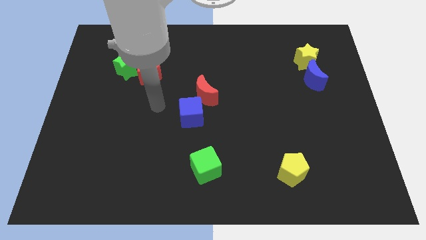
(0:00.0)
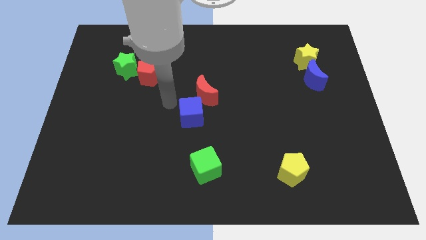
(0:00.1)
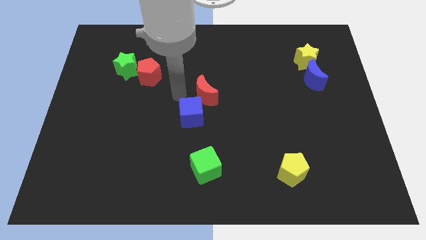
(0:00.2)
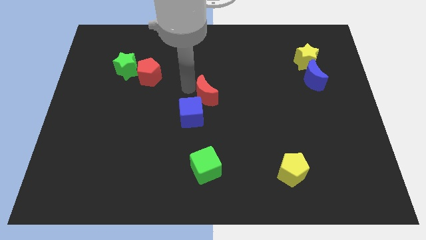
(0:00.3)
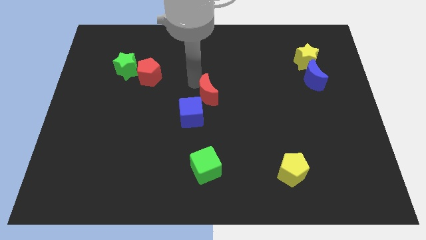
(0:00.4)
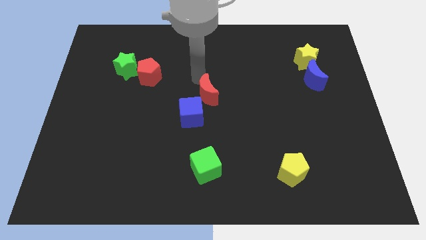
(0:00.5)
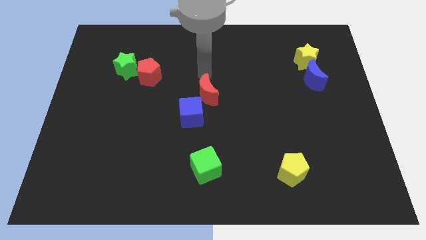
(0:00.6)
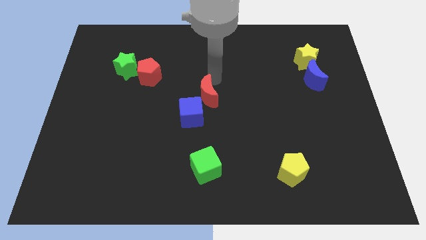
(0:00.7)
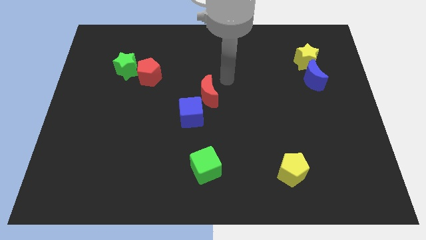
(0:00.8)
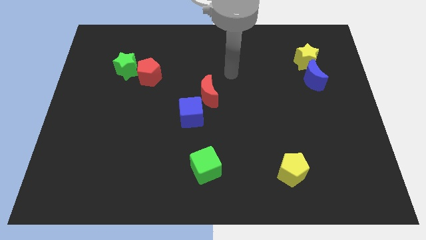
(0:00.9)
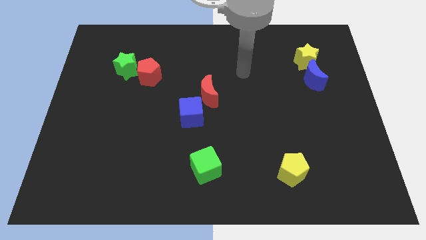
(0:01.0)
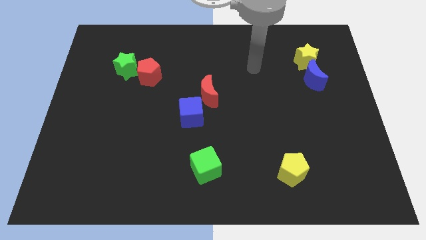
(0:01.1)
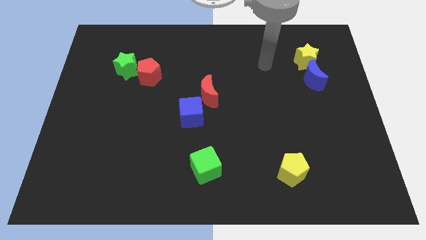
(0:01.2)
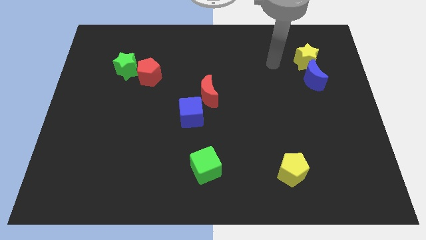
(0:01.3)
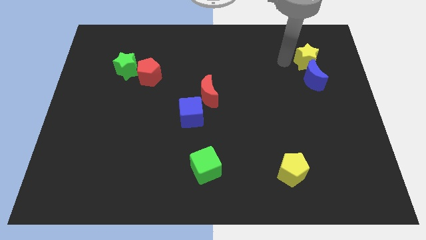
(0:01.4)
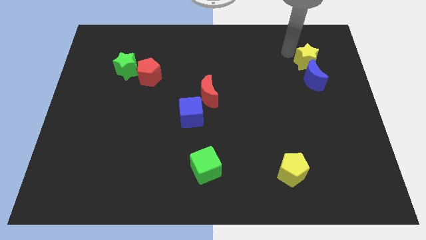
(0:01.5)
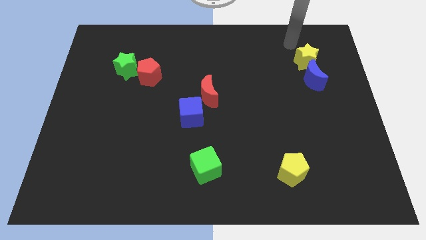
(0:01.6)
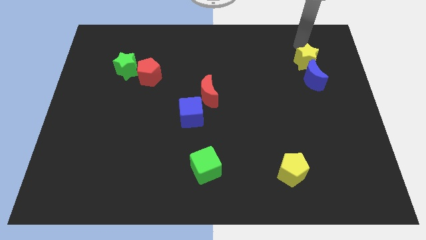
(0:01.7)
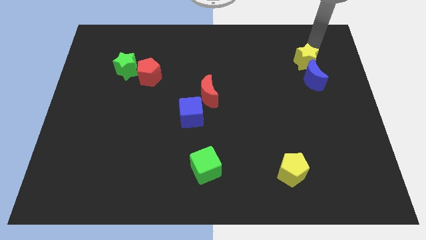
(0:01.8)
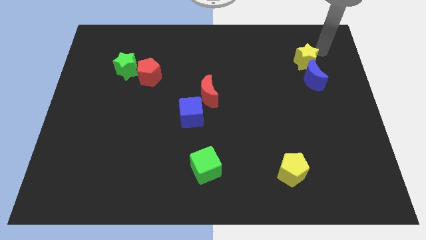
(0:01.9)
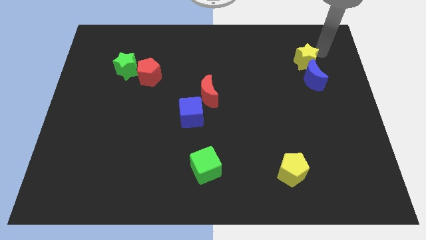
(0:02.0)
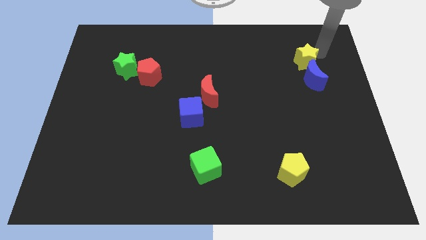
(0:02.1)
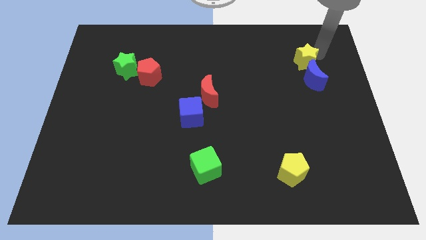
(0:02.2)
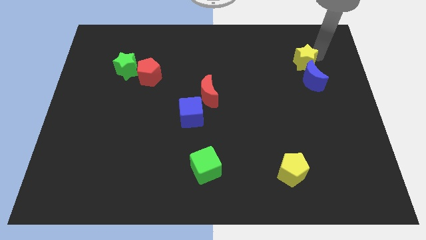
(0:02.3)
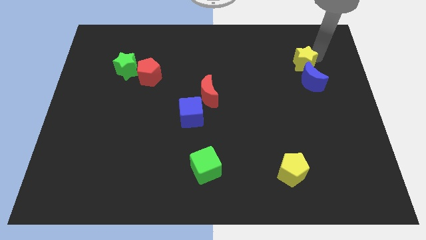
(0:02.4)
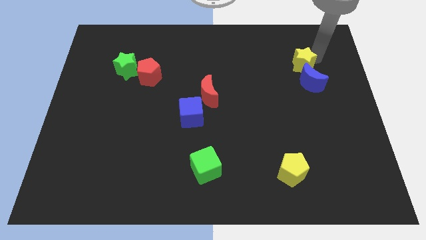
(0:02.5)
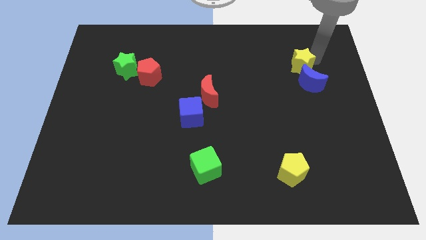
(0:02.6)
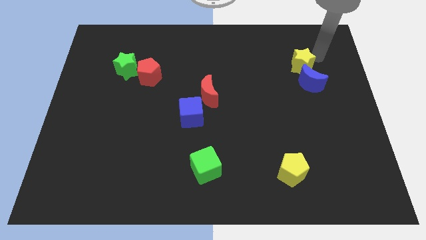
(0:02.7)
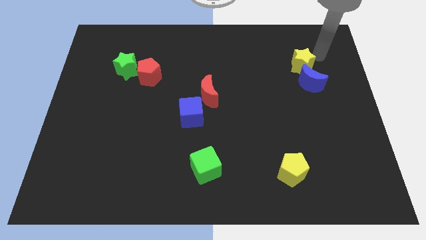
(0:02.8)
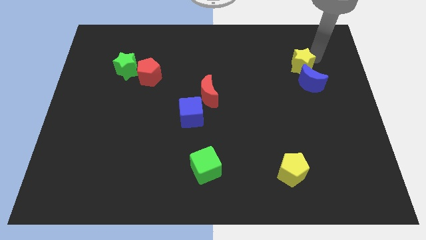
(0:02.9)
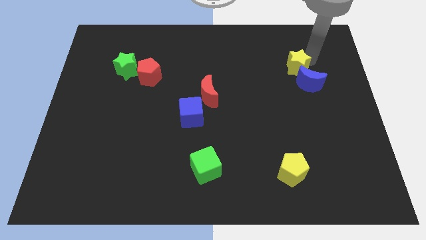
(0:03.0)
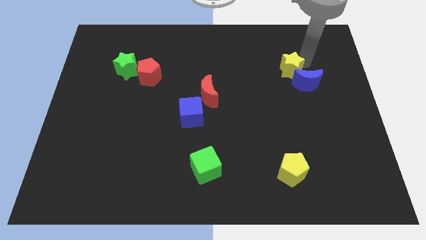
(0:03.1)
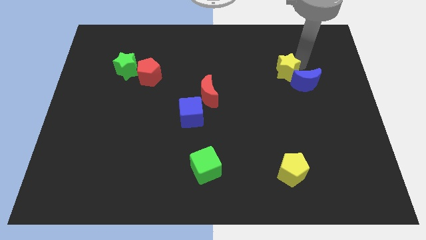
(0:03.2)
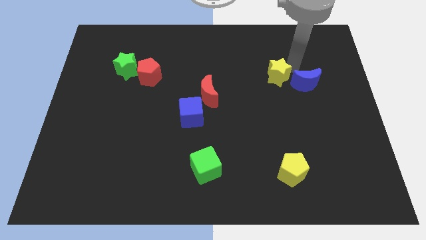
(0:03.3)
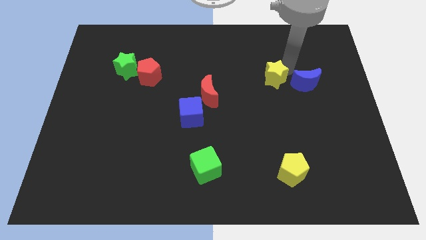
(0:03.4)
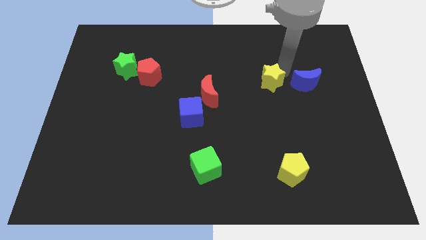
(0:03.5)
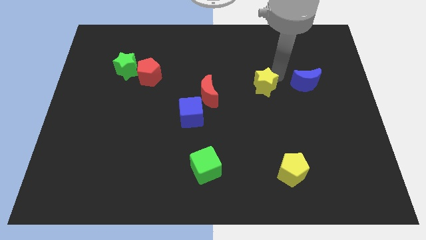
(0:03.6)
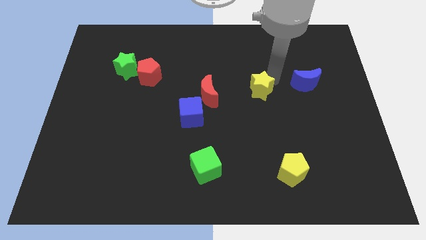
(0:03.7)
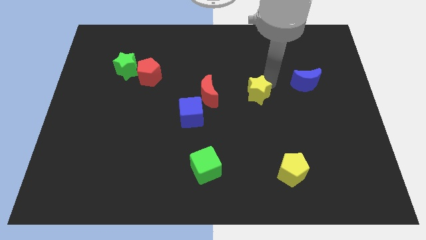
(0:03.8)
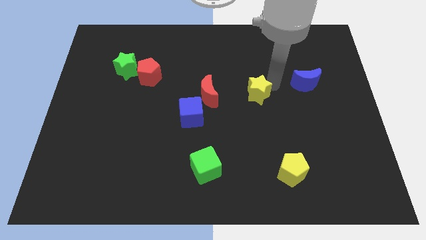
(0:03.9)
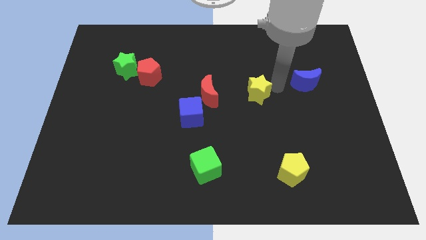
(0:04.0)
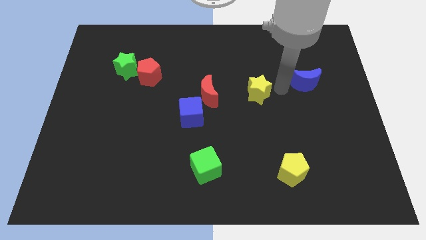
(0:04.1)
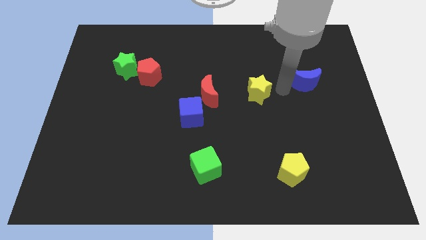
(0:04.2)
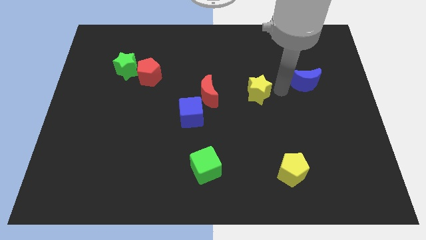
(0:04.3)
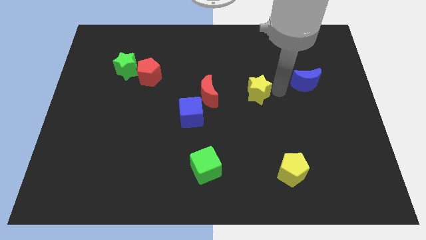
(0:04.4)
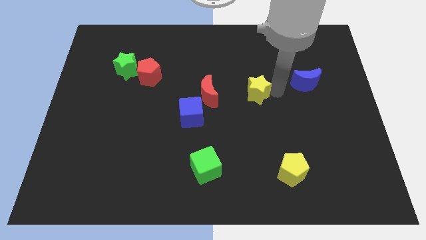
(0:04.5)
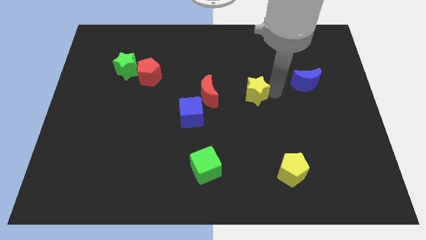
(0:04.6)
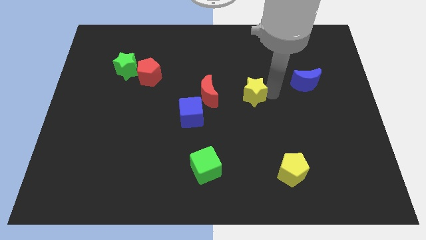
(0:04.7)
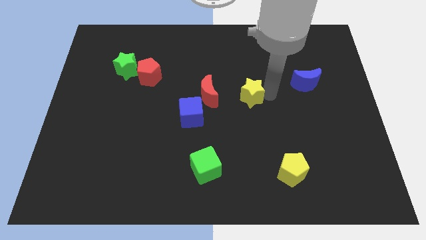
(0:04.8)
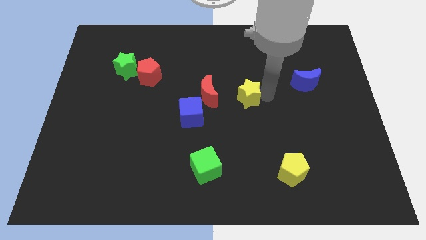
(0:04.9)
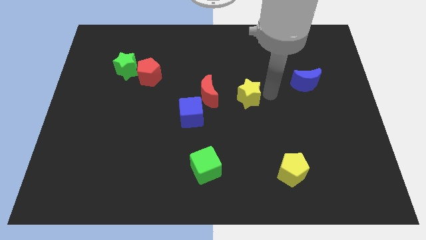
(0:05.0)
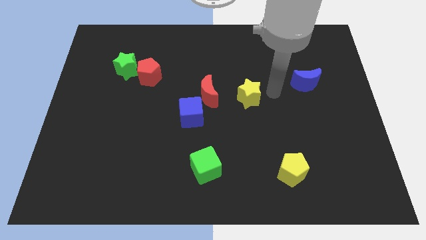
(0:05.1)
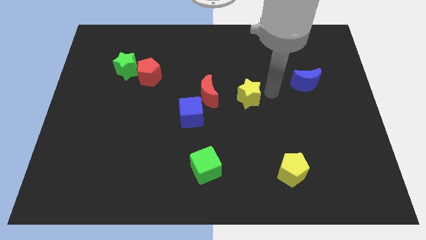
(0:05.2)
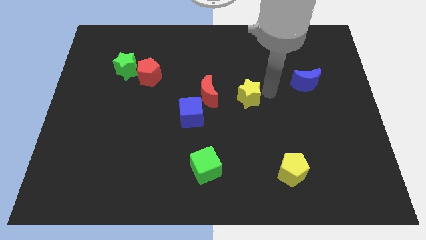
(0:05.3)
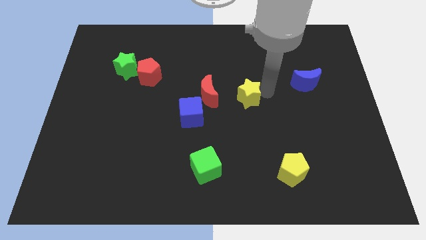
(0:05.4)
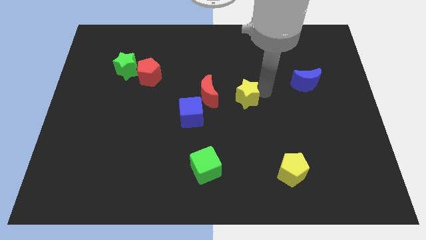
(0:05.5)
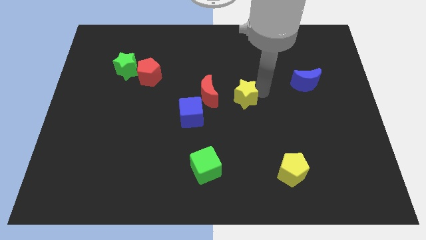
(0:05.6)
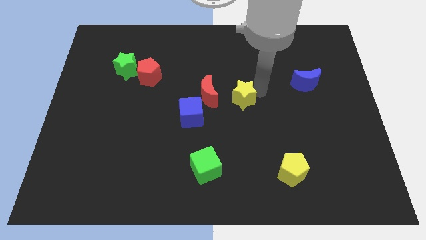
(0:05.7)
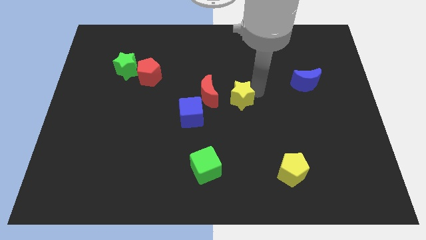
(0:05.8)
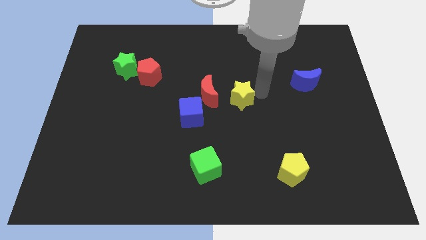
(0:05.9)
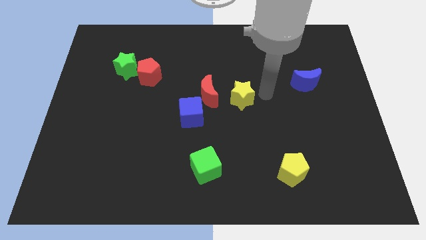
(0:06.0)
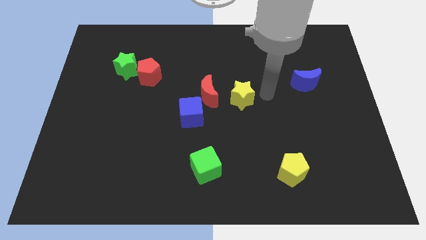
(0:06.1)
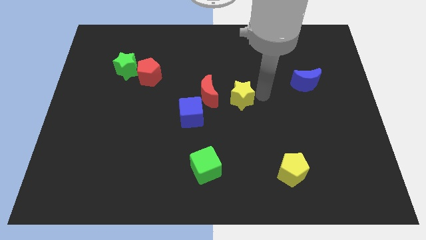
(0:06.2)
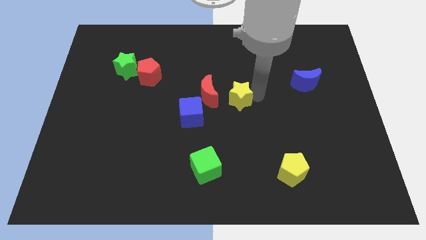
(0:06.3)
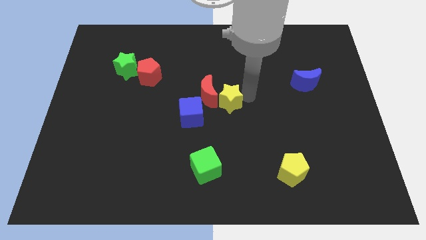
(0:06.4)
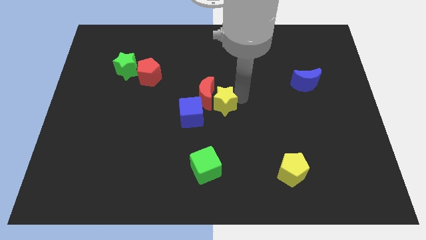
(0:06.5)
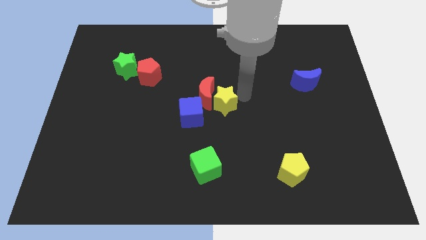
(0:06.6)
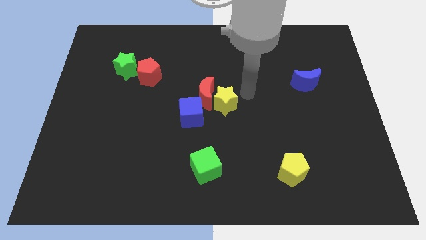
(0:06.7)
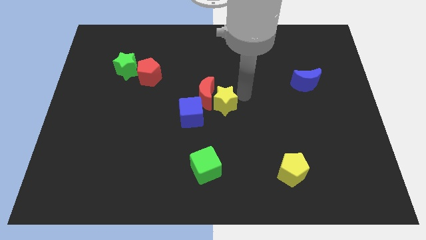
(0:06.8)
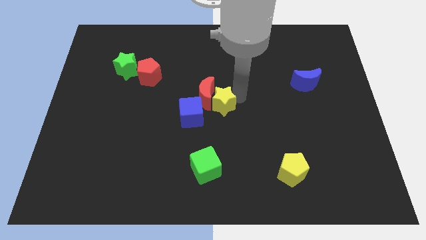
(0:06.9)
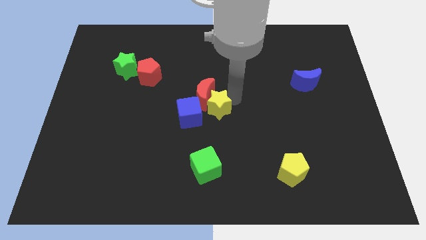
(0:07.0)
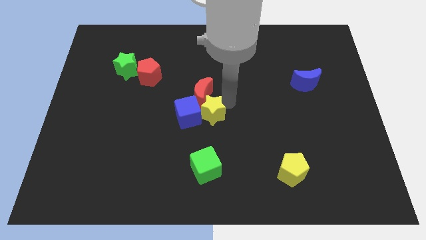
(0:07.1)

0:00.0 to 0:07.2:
push the yellow star towards the blue cube

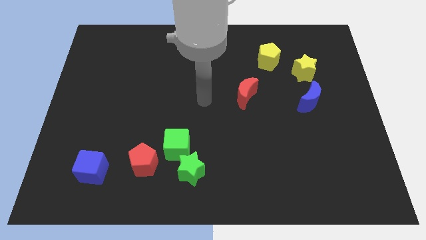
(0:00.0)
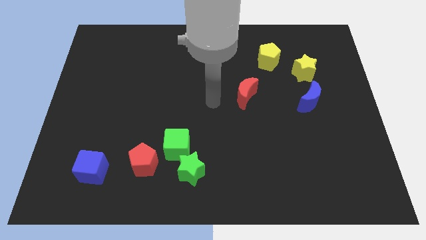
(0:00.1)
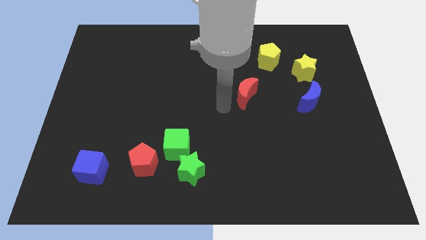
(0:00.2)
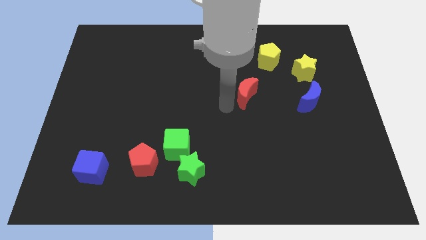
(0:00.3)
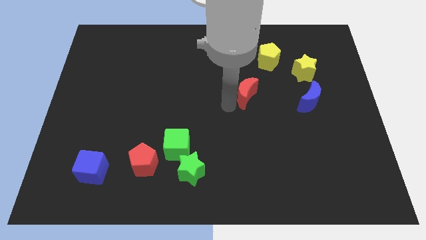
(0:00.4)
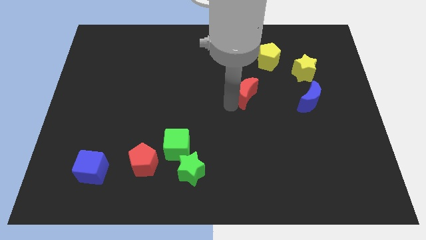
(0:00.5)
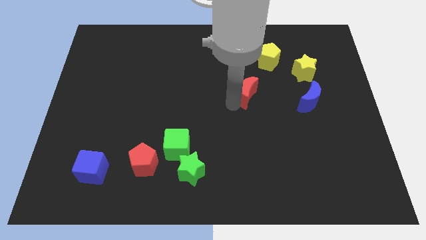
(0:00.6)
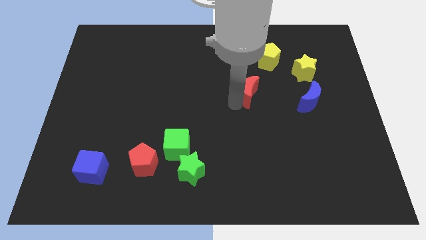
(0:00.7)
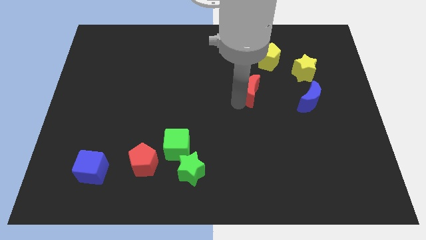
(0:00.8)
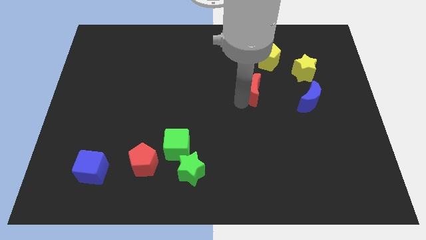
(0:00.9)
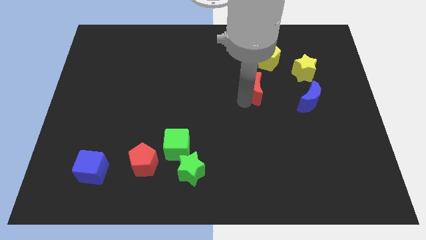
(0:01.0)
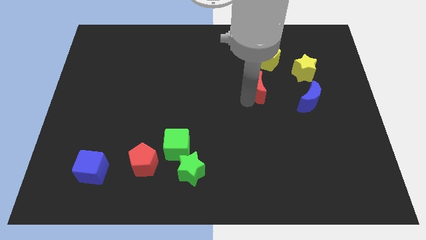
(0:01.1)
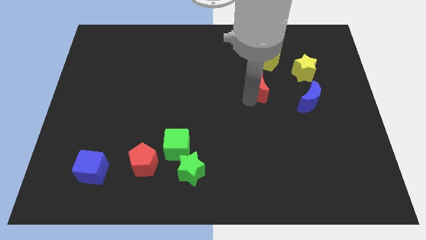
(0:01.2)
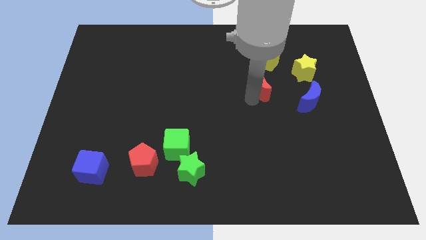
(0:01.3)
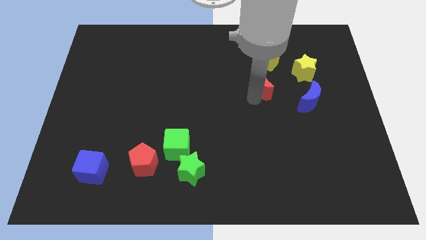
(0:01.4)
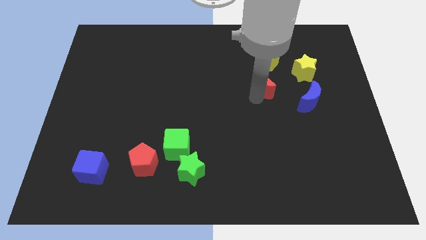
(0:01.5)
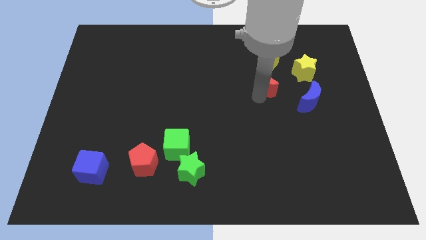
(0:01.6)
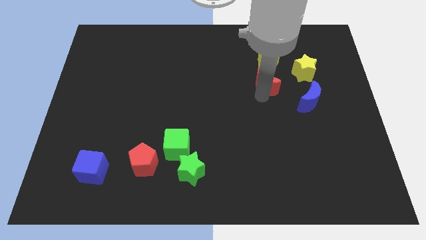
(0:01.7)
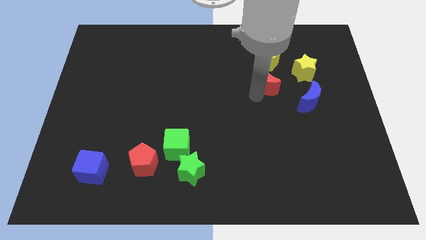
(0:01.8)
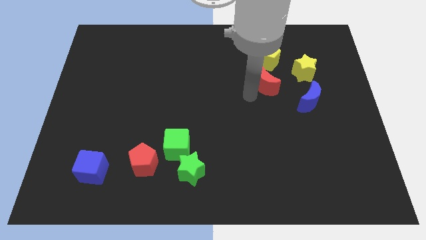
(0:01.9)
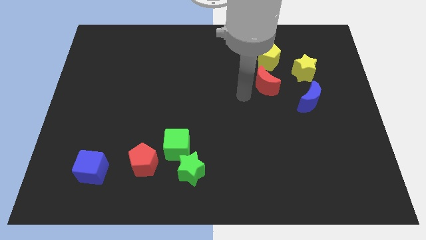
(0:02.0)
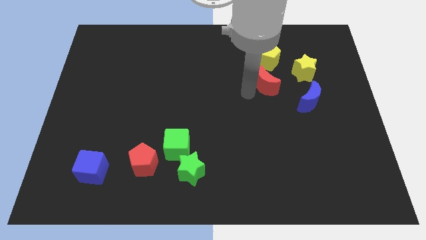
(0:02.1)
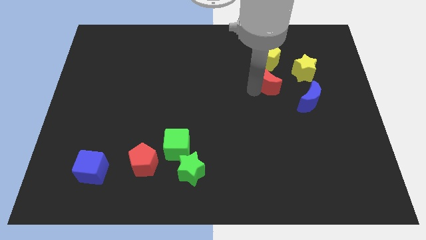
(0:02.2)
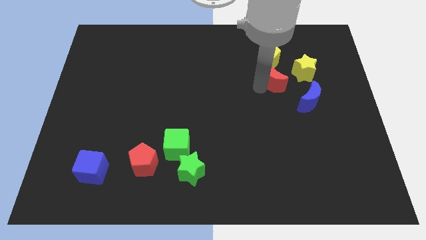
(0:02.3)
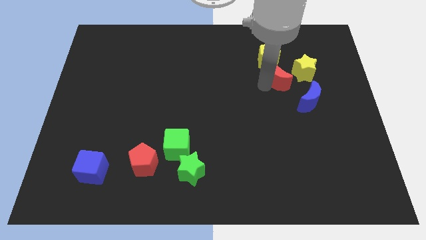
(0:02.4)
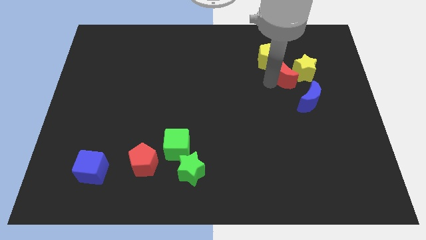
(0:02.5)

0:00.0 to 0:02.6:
put the red moon next to the yellow star
